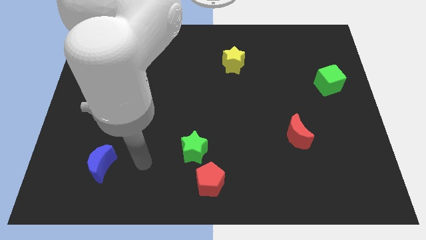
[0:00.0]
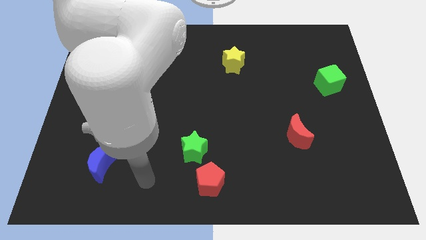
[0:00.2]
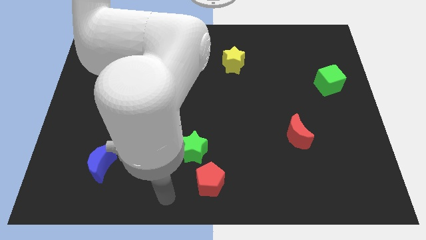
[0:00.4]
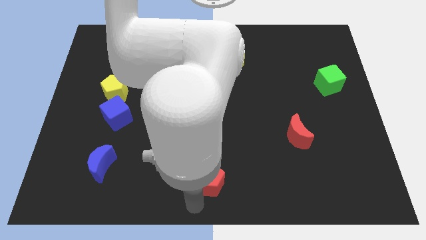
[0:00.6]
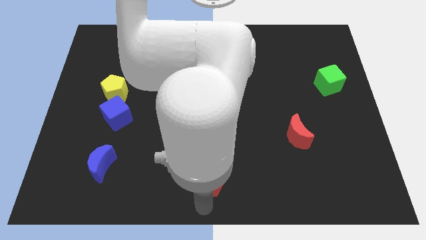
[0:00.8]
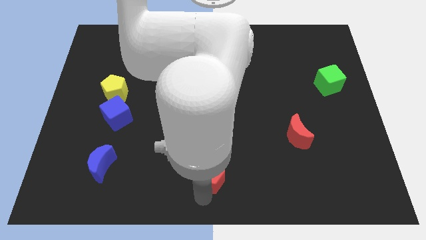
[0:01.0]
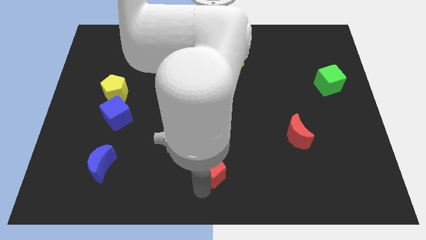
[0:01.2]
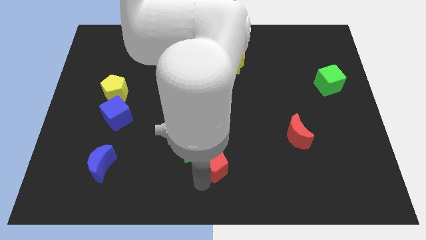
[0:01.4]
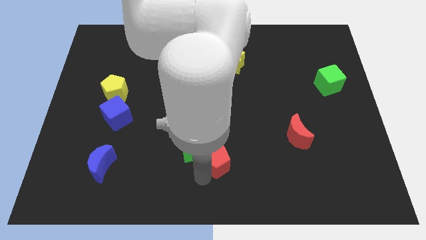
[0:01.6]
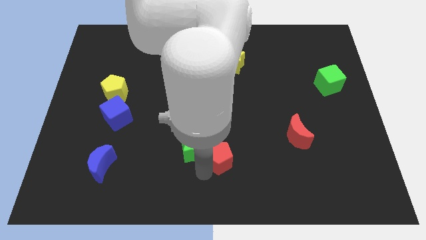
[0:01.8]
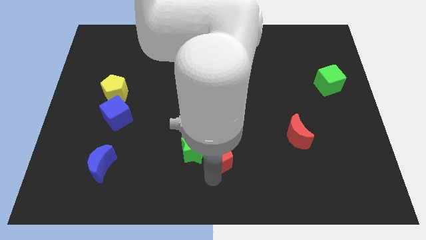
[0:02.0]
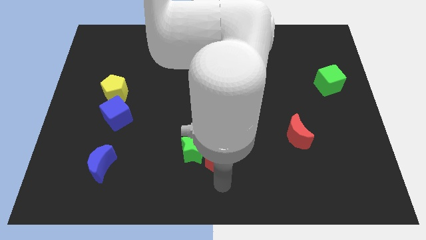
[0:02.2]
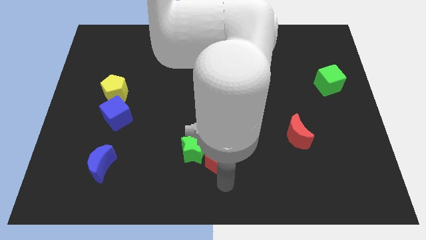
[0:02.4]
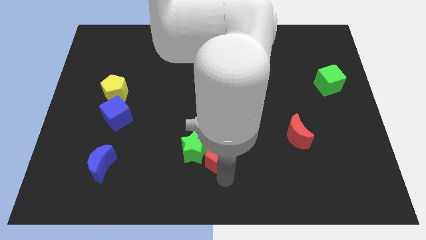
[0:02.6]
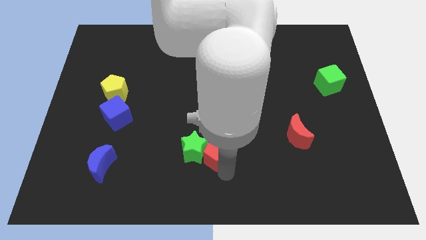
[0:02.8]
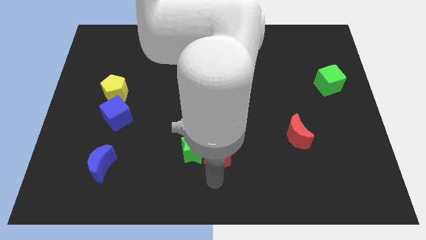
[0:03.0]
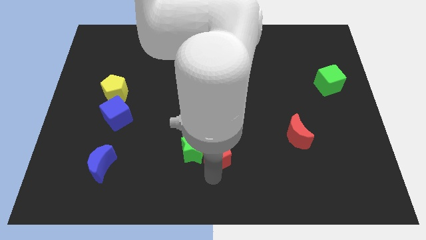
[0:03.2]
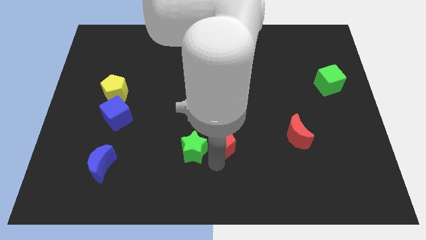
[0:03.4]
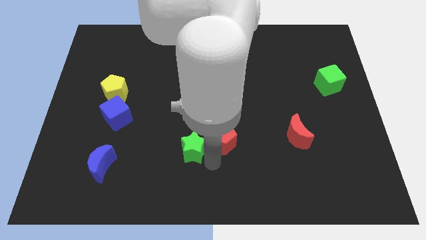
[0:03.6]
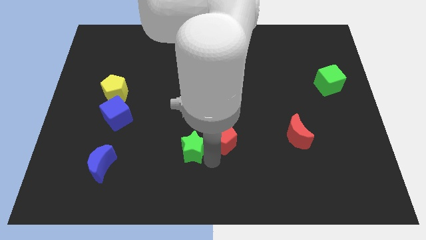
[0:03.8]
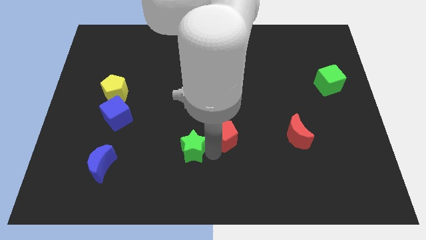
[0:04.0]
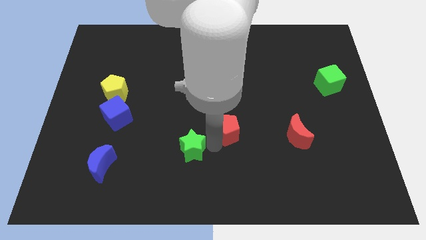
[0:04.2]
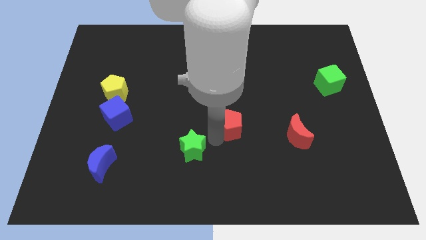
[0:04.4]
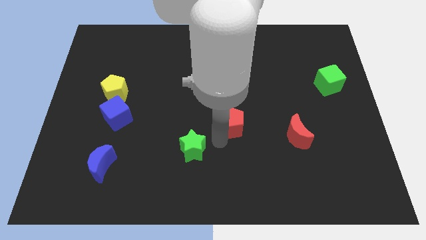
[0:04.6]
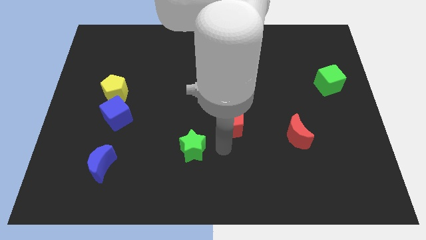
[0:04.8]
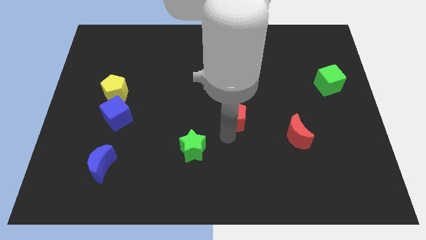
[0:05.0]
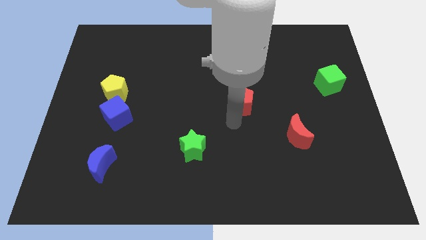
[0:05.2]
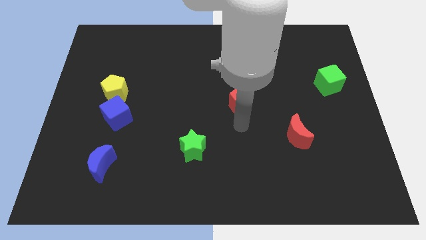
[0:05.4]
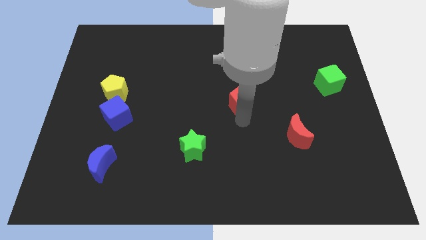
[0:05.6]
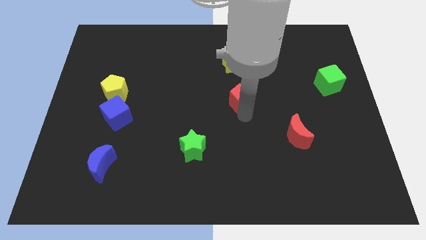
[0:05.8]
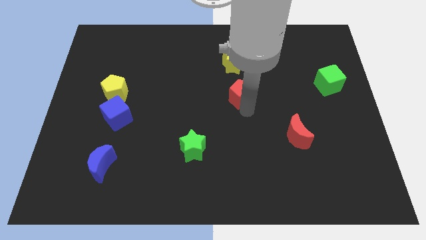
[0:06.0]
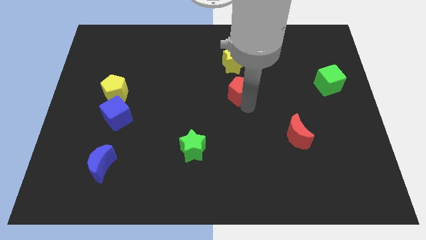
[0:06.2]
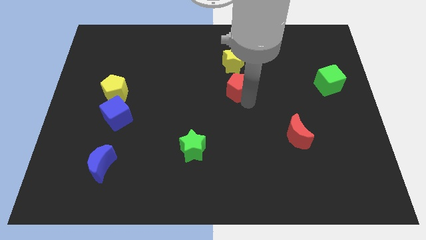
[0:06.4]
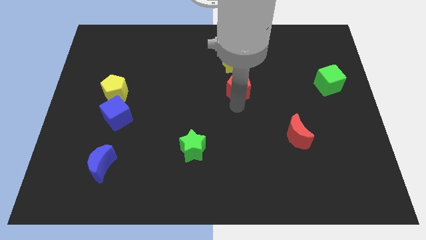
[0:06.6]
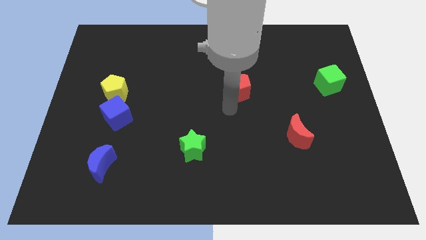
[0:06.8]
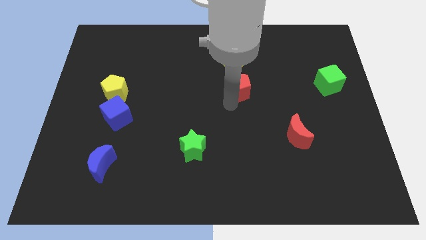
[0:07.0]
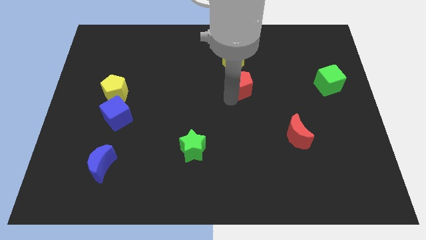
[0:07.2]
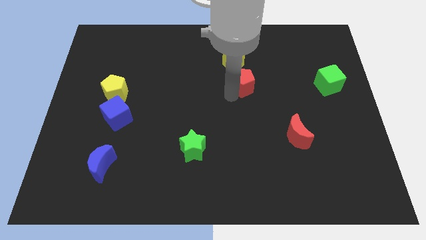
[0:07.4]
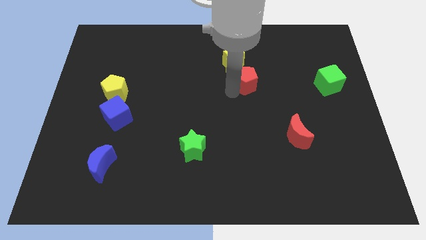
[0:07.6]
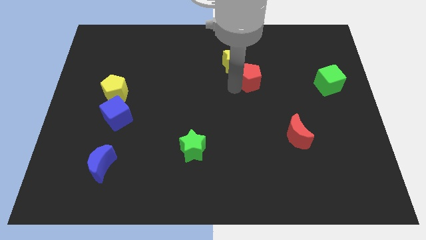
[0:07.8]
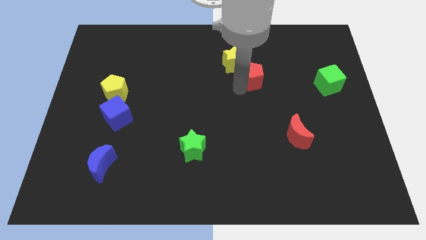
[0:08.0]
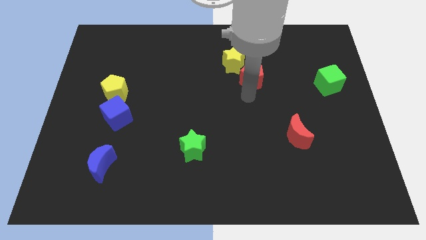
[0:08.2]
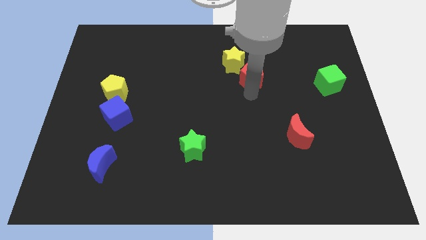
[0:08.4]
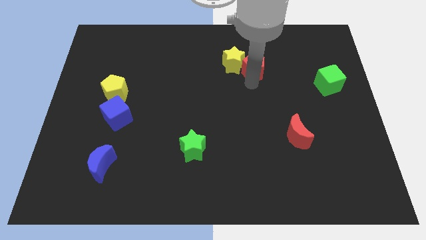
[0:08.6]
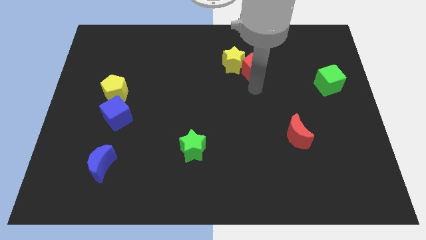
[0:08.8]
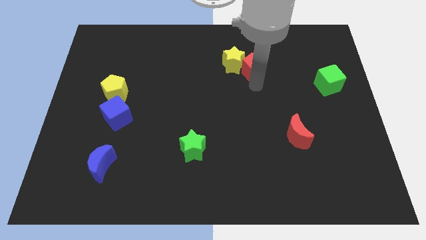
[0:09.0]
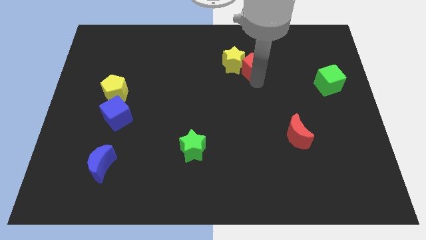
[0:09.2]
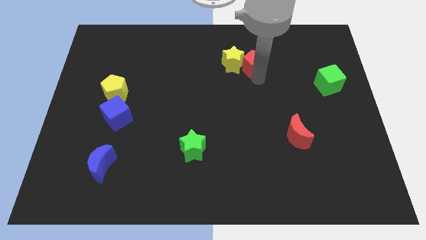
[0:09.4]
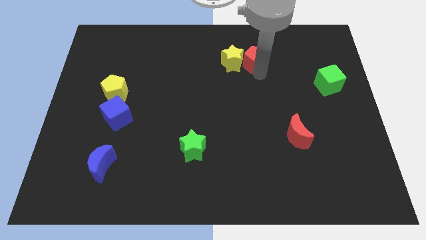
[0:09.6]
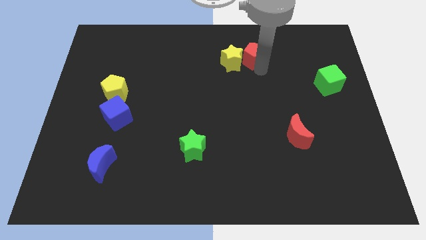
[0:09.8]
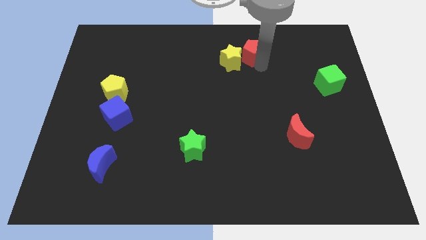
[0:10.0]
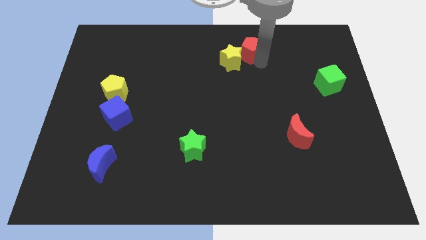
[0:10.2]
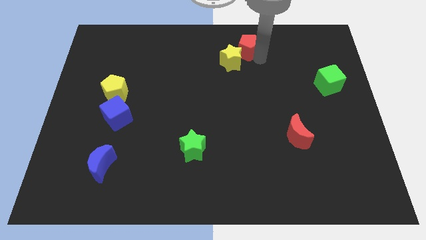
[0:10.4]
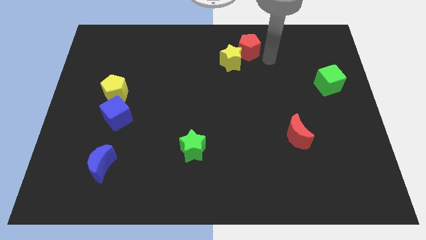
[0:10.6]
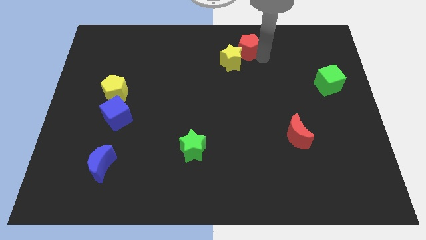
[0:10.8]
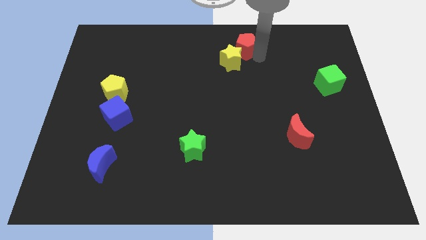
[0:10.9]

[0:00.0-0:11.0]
slide the red pentagon to the towards your base

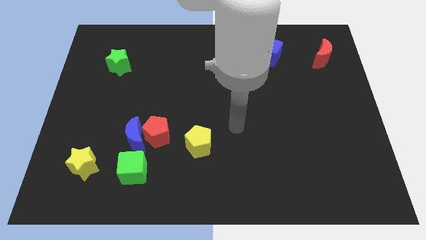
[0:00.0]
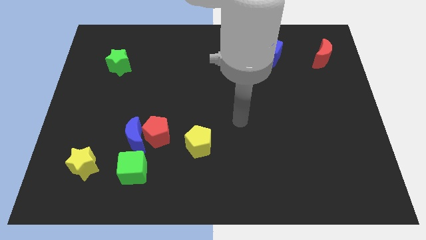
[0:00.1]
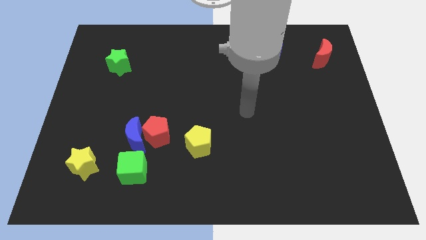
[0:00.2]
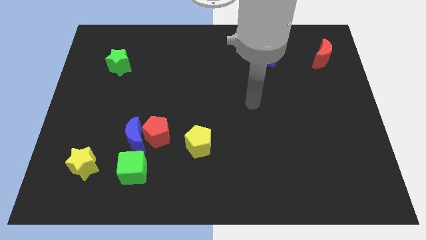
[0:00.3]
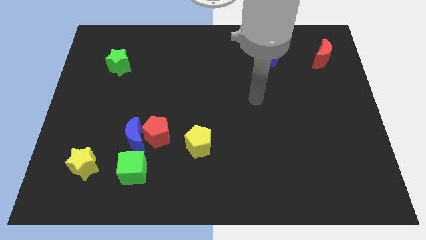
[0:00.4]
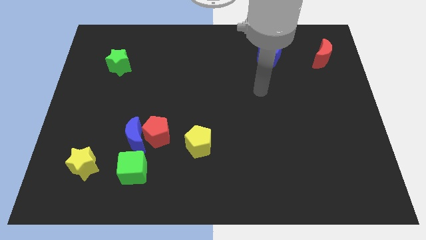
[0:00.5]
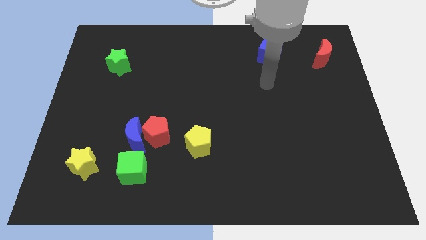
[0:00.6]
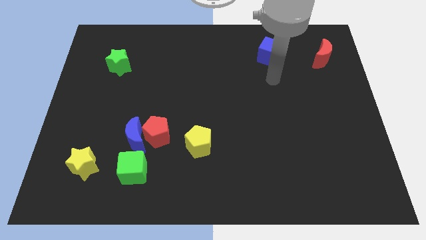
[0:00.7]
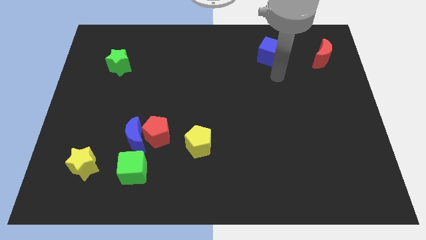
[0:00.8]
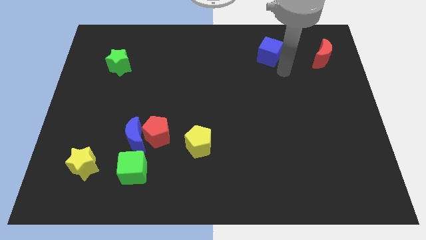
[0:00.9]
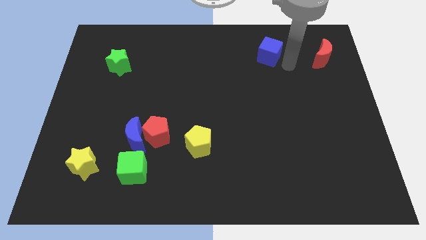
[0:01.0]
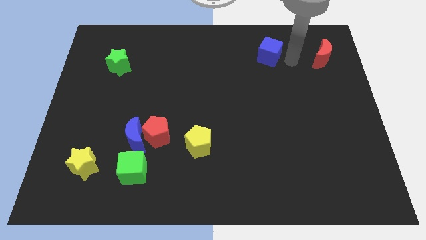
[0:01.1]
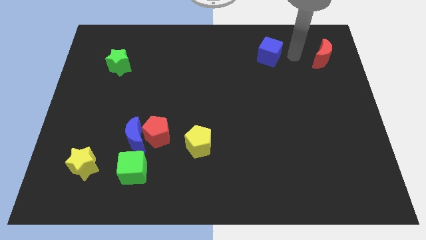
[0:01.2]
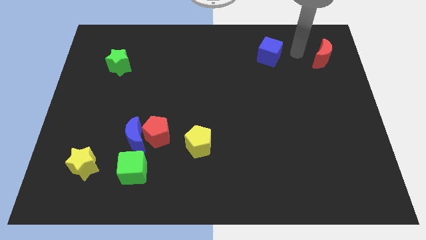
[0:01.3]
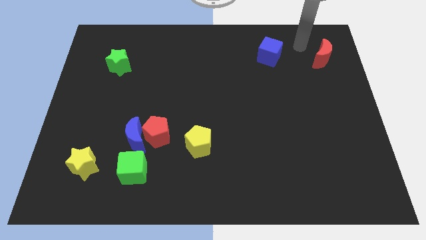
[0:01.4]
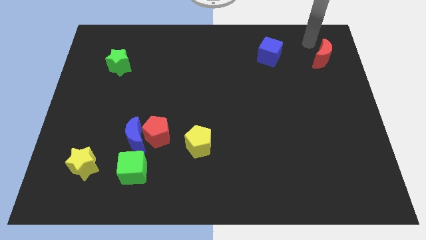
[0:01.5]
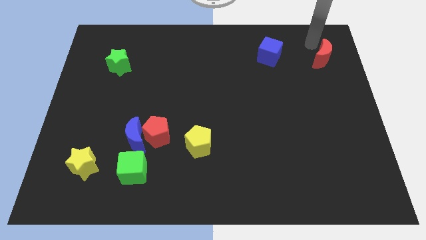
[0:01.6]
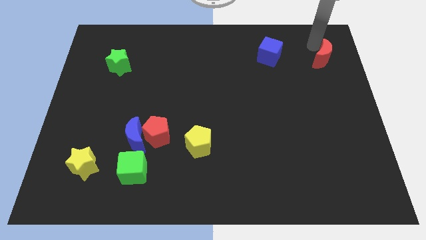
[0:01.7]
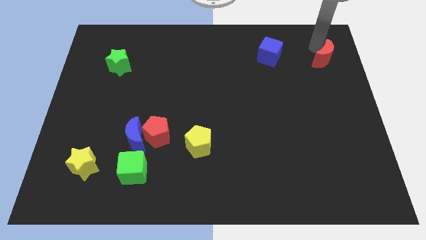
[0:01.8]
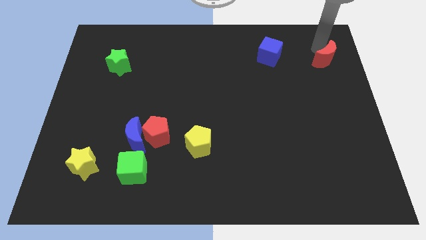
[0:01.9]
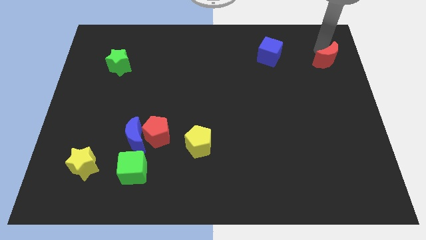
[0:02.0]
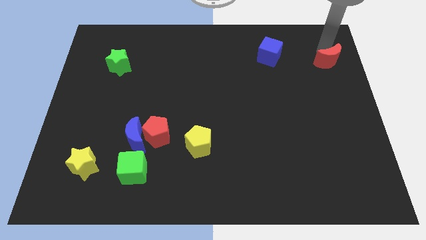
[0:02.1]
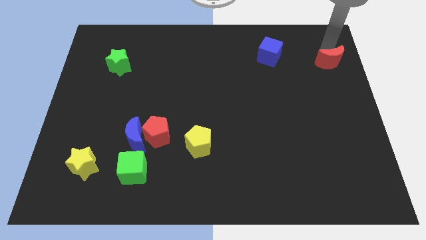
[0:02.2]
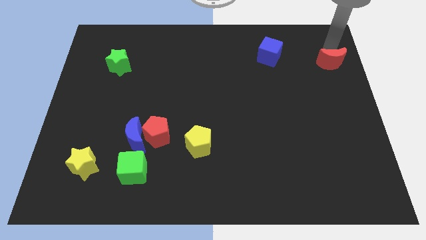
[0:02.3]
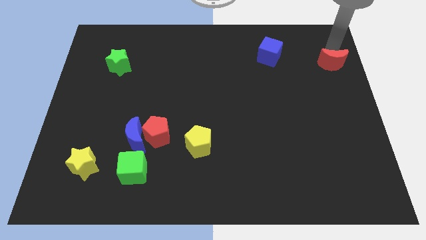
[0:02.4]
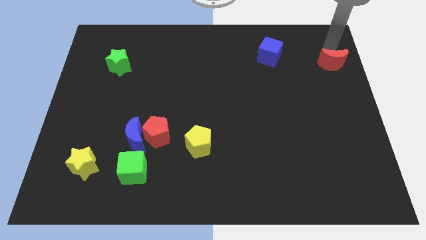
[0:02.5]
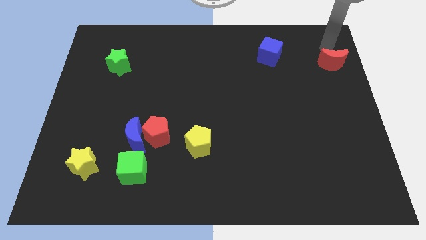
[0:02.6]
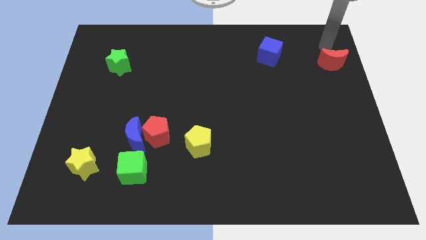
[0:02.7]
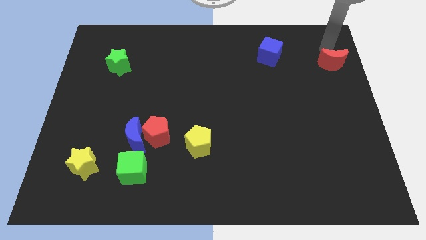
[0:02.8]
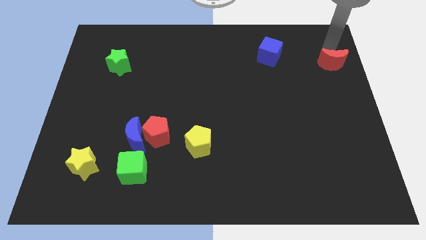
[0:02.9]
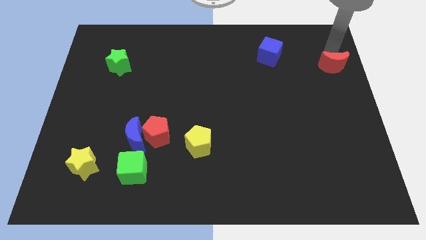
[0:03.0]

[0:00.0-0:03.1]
slide the red moon to the right side
